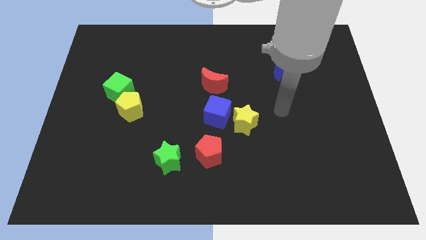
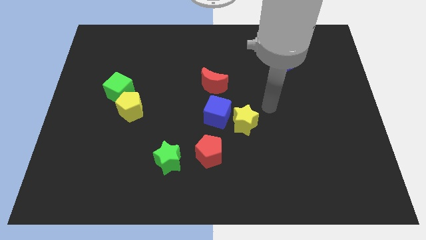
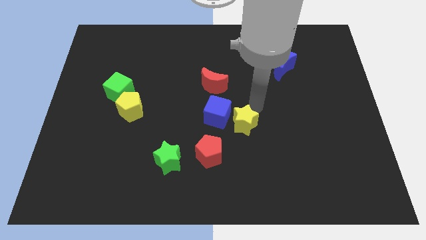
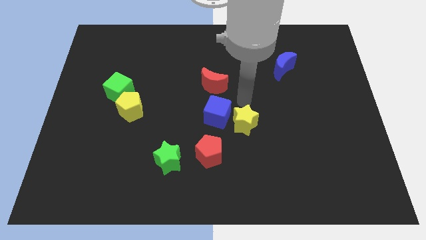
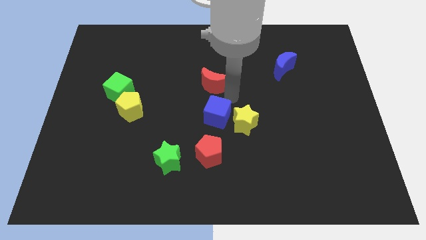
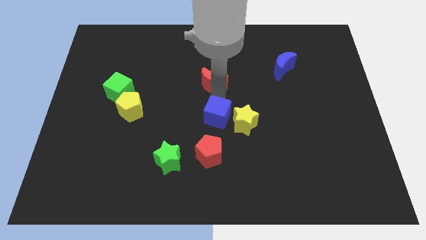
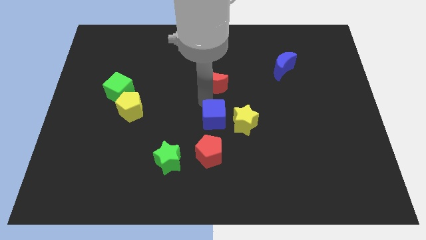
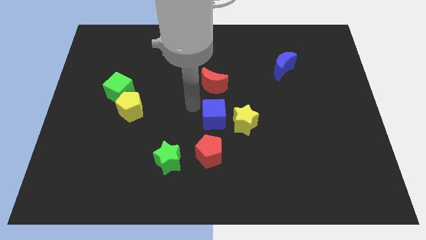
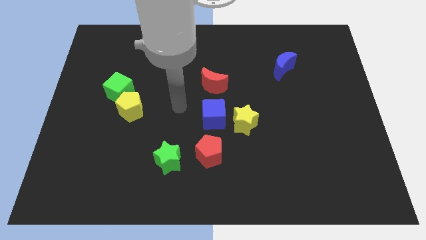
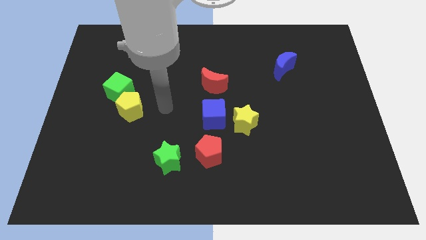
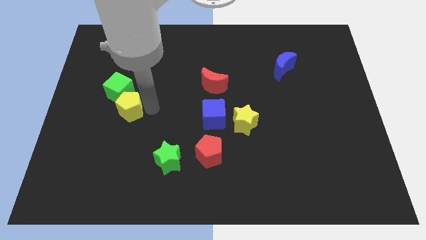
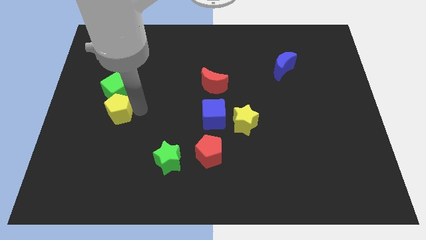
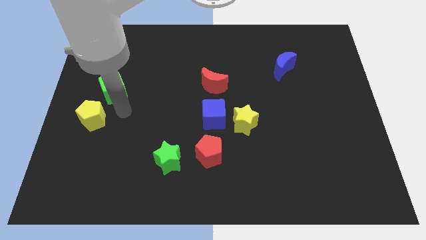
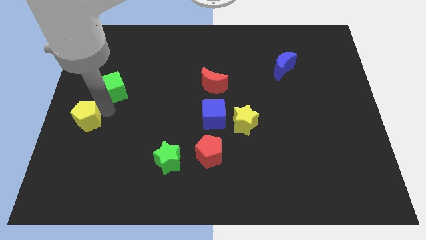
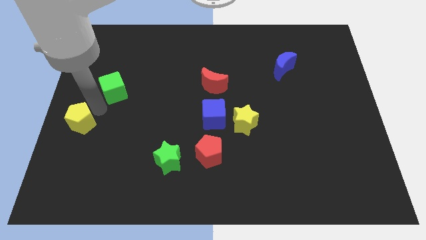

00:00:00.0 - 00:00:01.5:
pull the green cube apart from the yellow pentagon

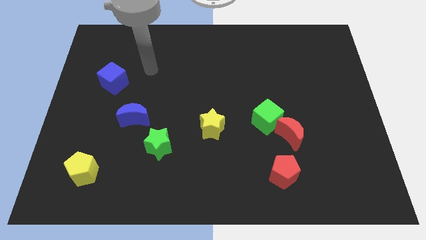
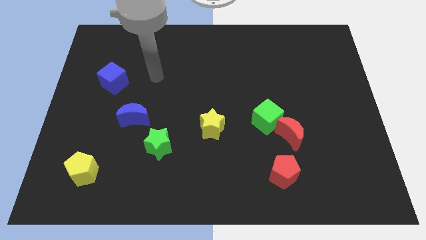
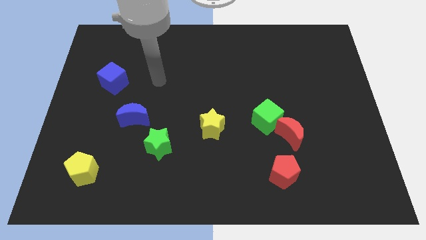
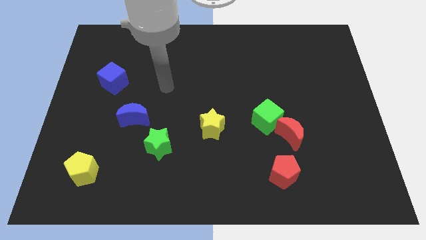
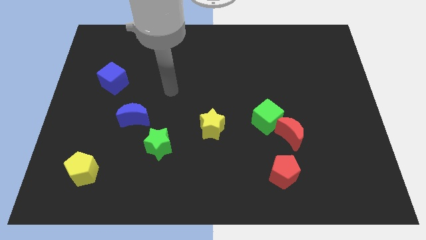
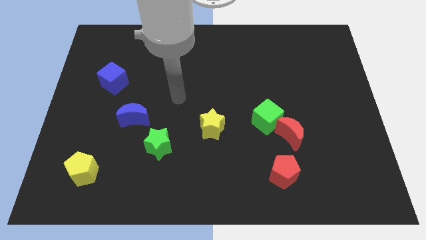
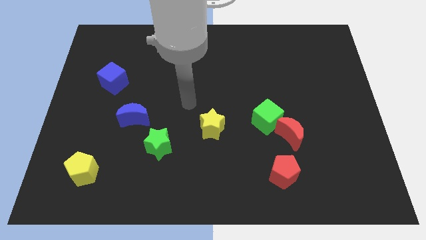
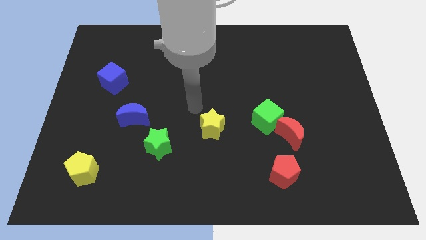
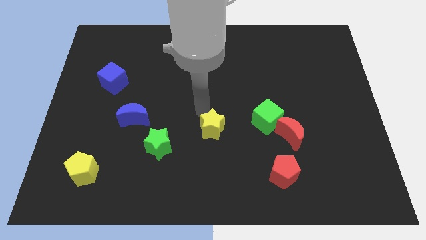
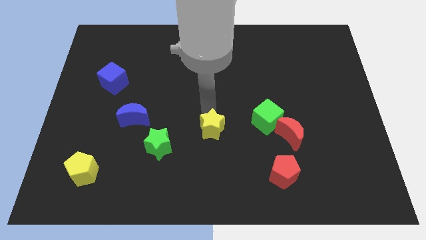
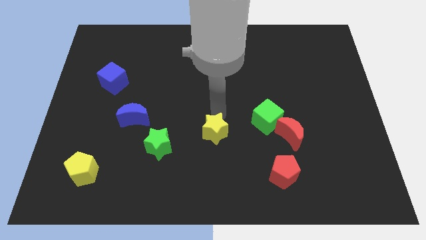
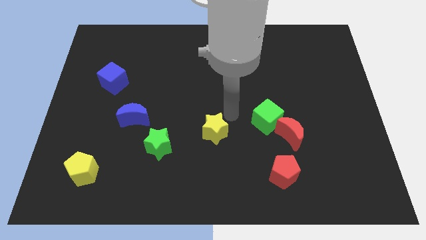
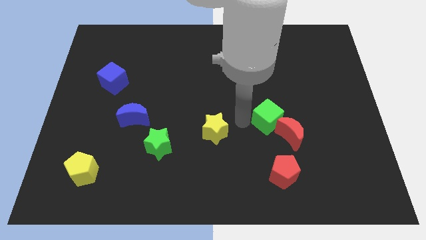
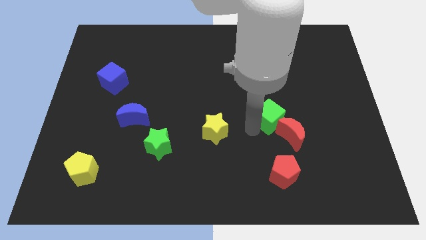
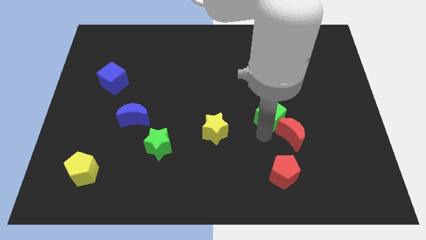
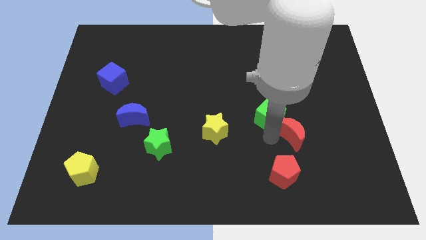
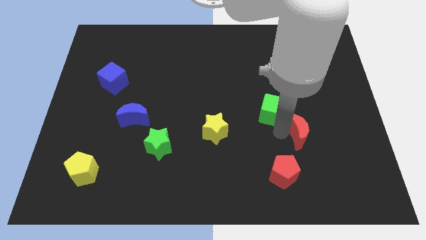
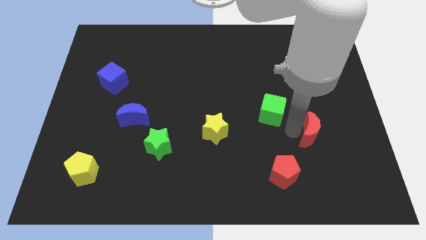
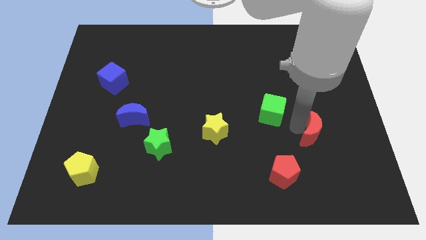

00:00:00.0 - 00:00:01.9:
move the green cube away from the red moon

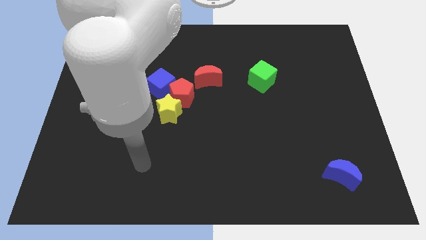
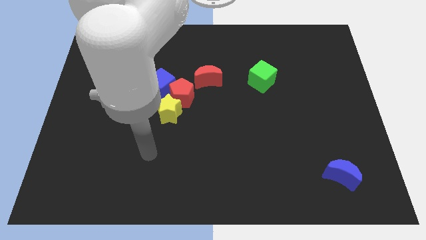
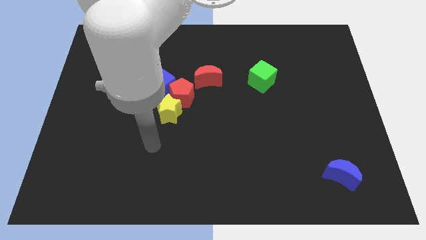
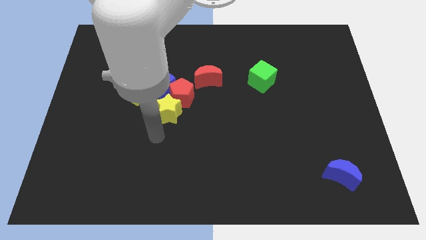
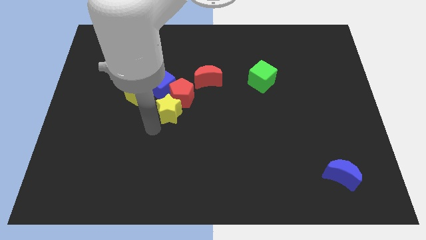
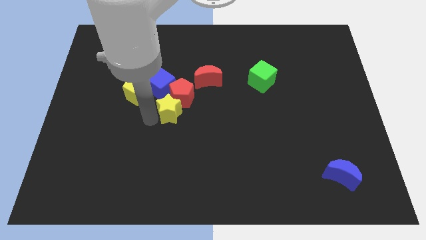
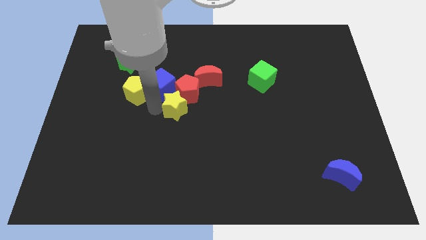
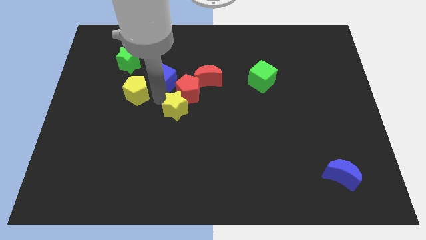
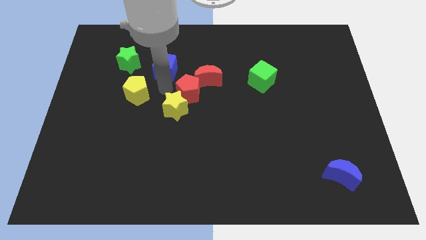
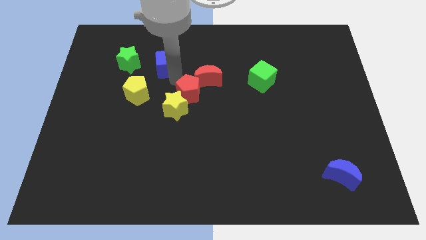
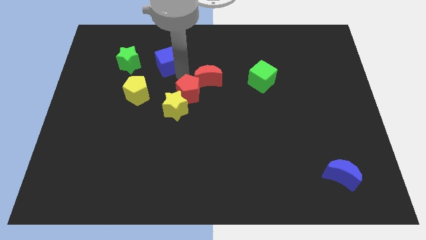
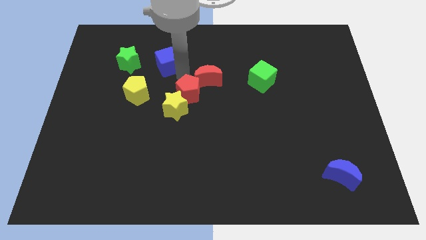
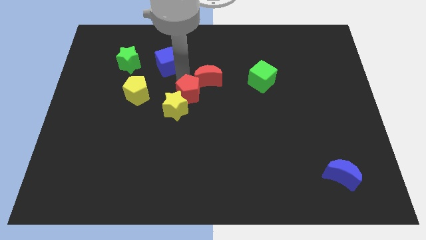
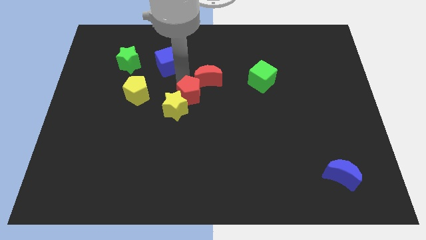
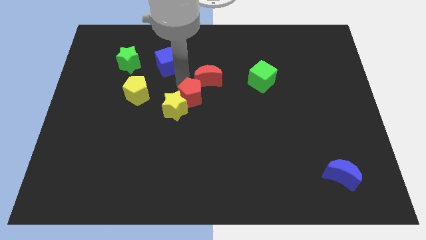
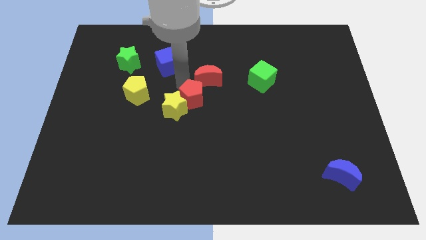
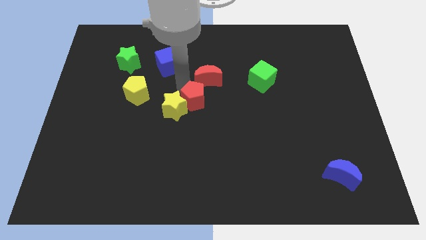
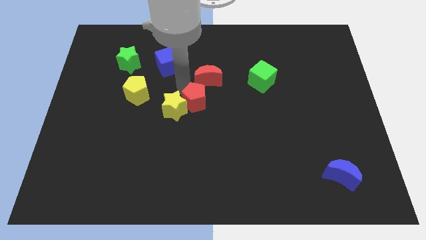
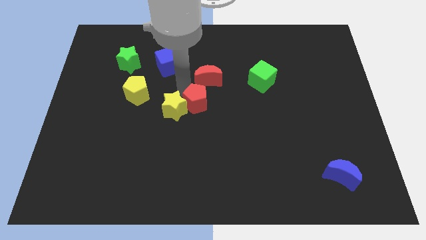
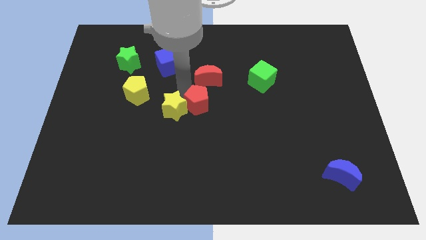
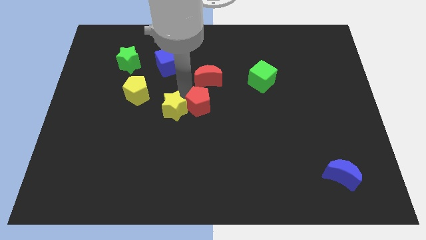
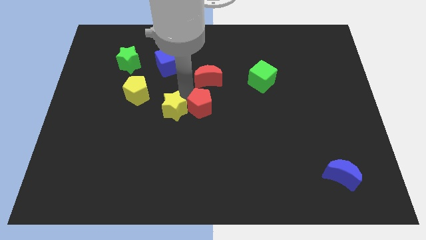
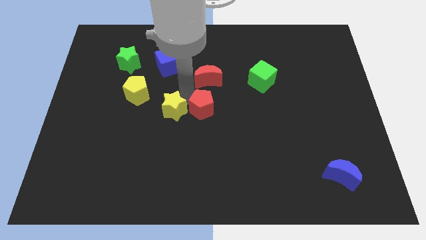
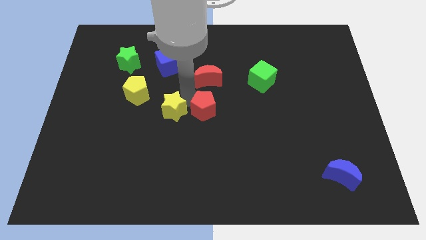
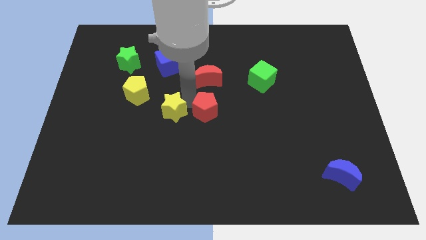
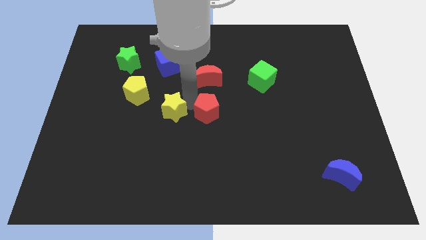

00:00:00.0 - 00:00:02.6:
move the red pentagon away from the blue cube, yellow star, and red moon

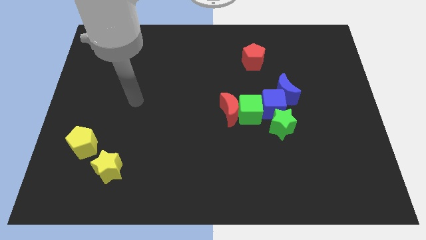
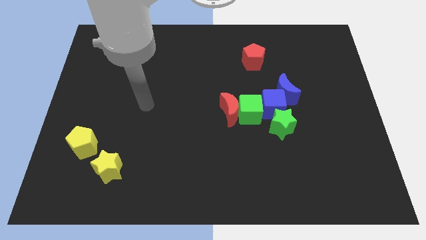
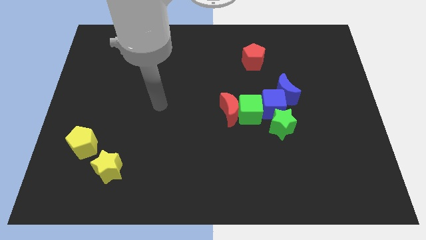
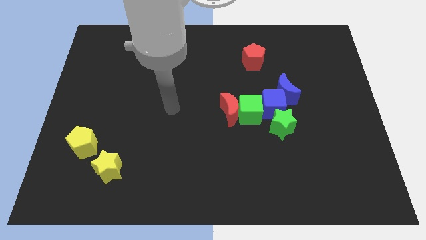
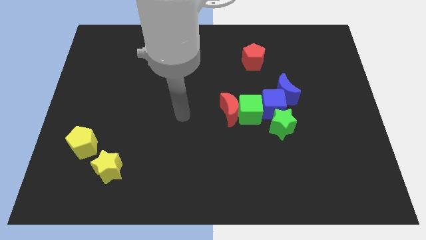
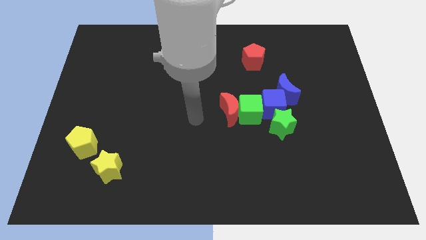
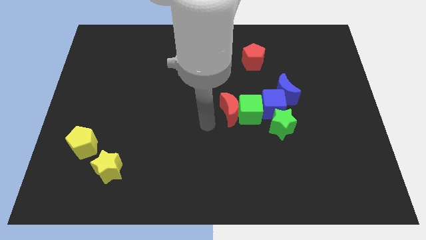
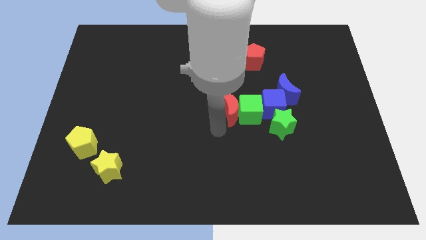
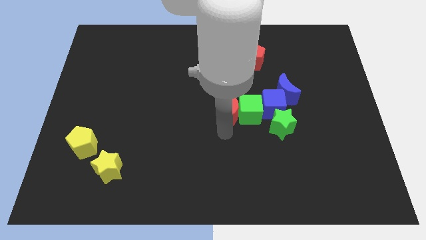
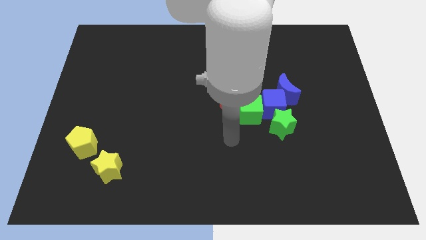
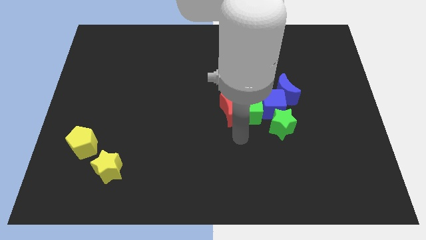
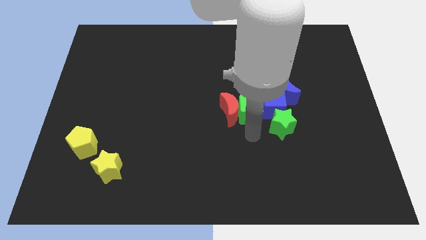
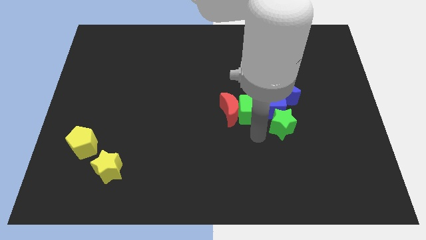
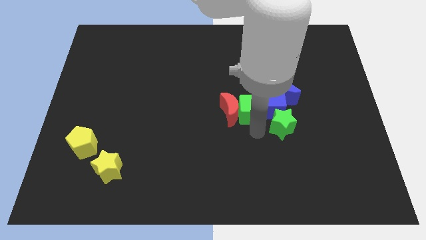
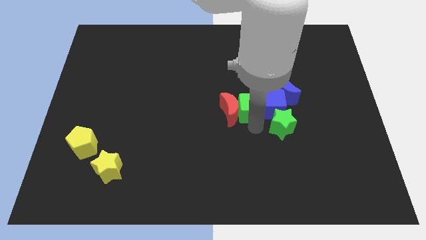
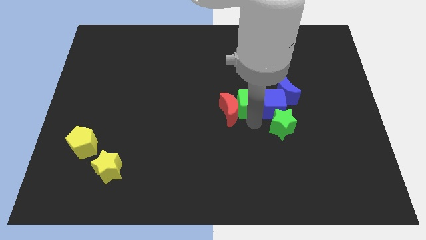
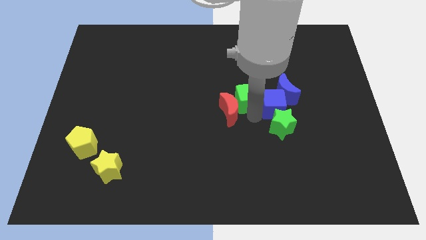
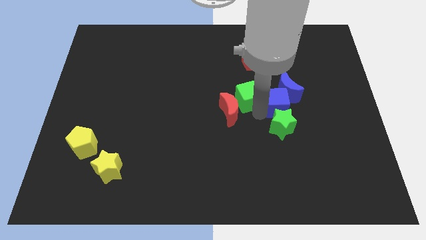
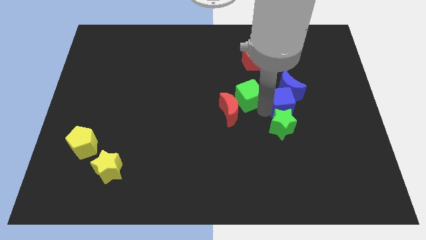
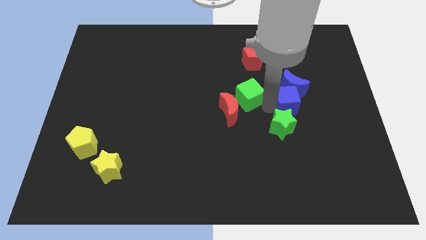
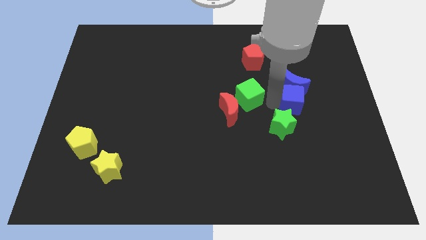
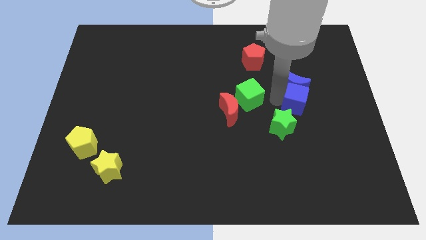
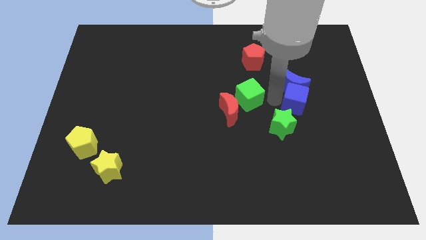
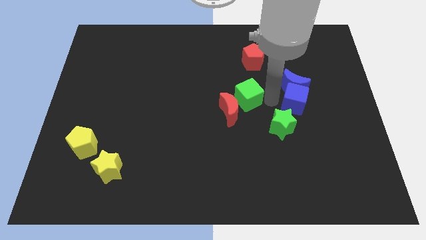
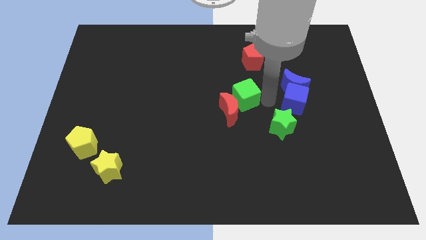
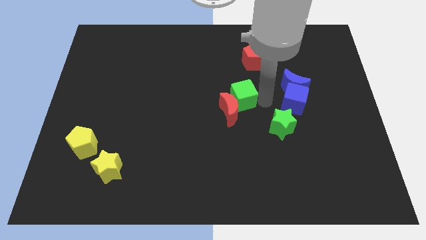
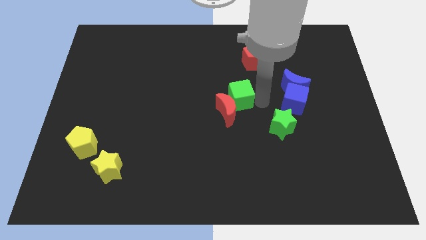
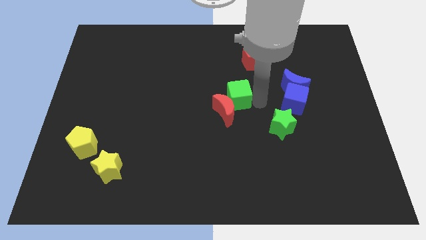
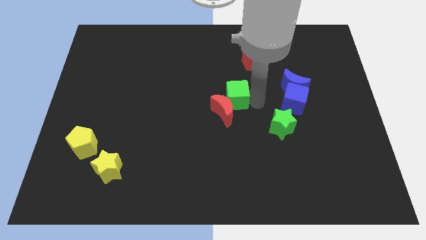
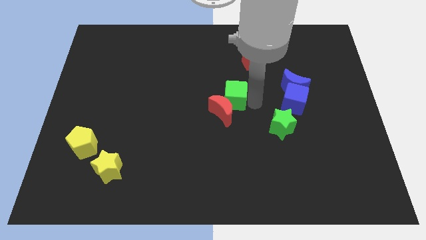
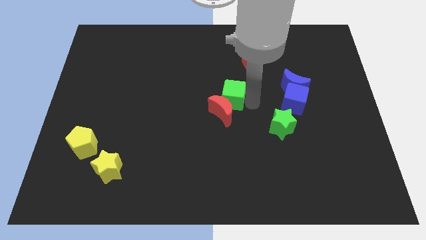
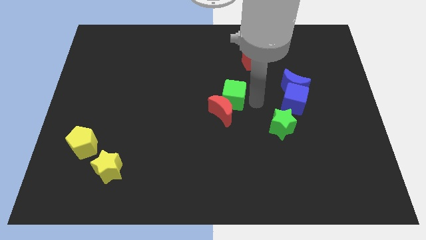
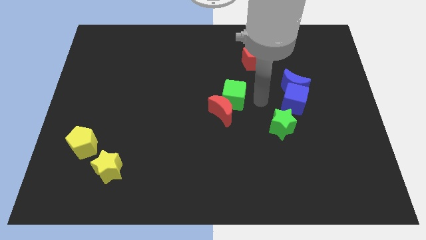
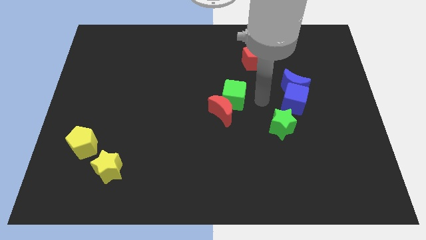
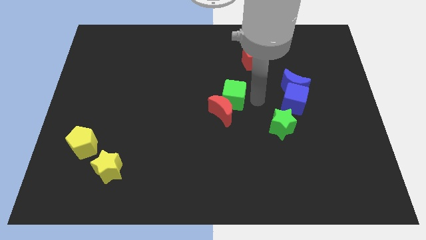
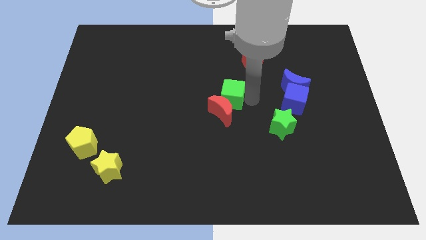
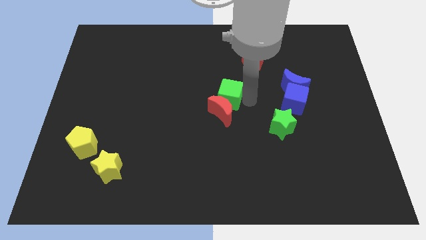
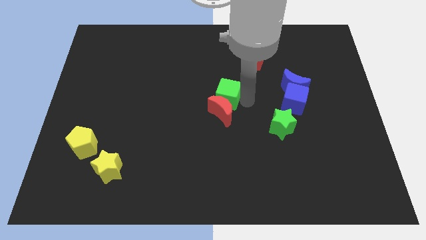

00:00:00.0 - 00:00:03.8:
separate the green cube from the clump
